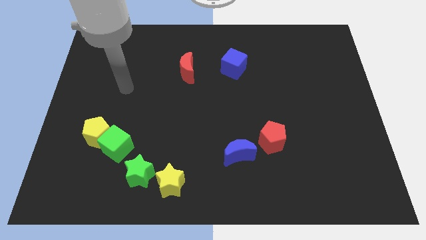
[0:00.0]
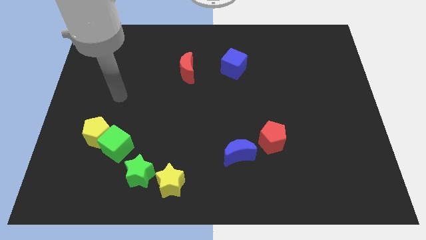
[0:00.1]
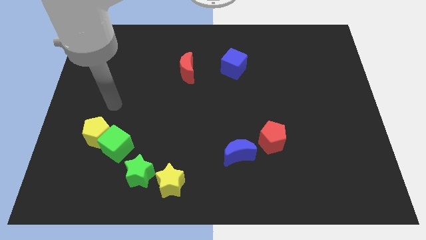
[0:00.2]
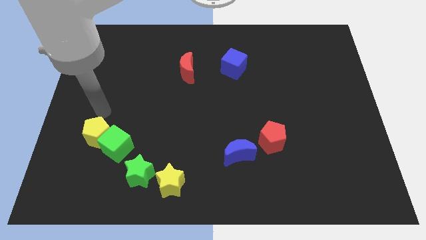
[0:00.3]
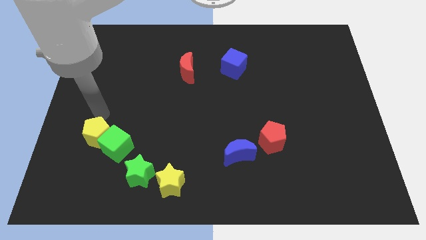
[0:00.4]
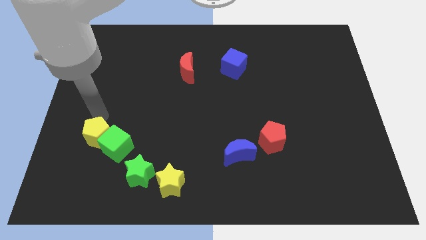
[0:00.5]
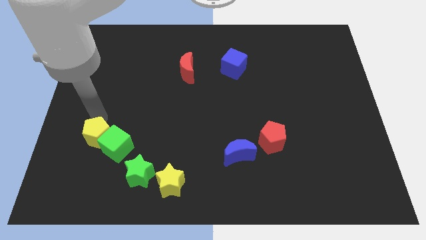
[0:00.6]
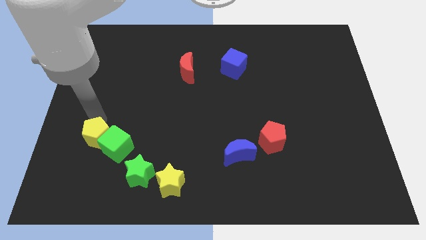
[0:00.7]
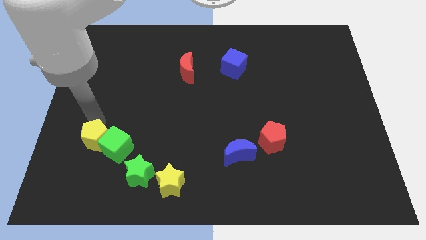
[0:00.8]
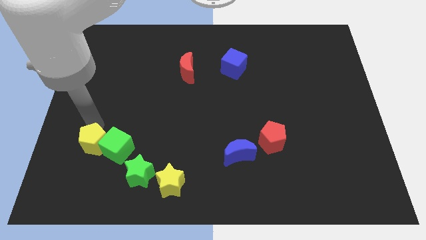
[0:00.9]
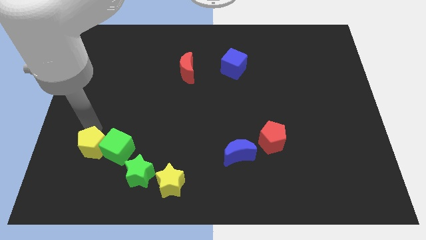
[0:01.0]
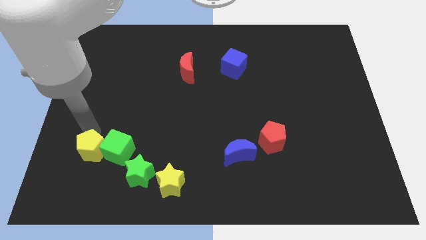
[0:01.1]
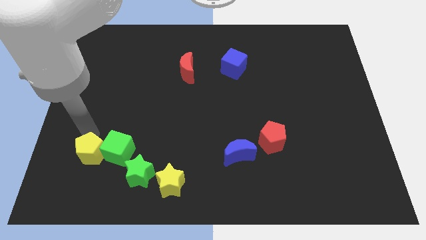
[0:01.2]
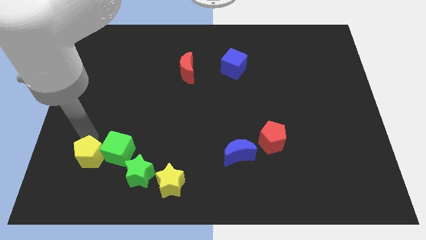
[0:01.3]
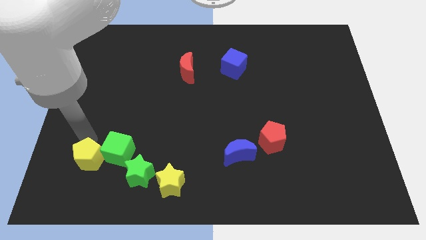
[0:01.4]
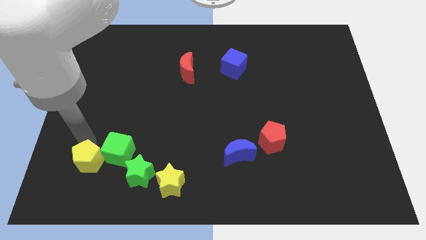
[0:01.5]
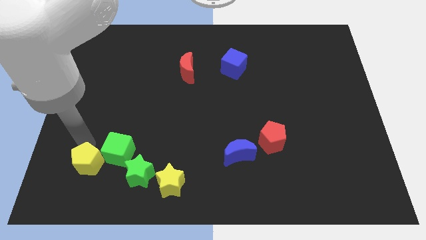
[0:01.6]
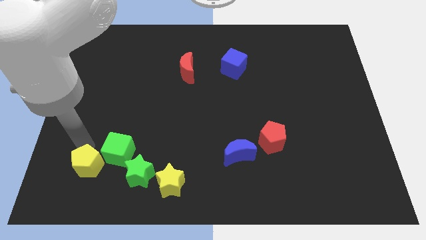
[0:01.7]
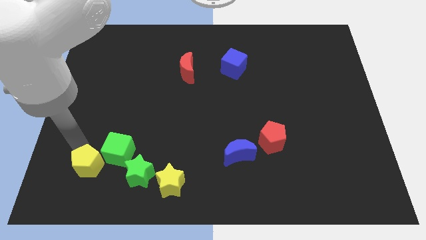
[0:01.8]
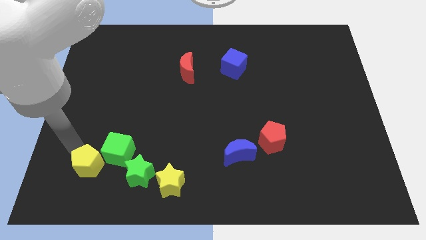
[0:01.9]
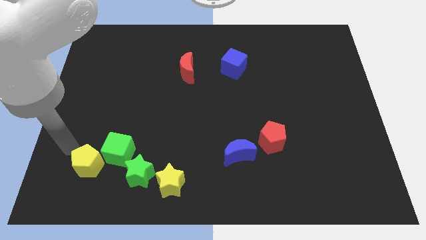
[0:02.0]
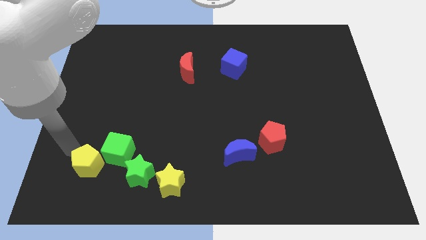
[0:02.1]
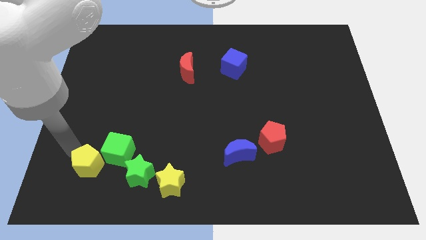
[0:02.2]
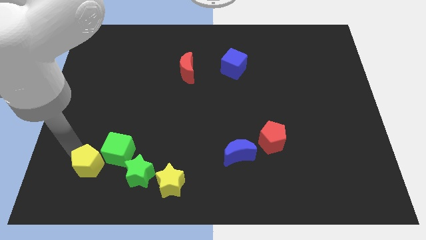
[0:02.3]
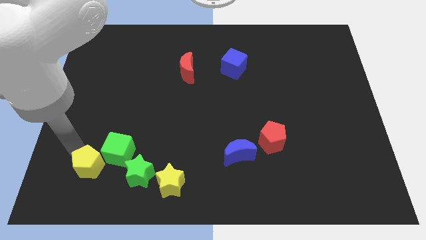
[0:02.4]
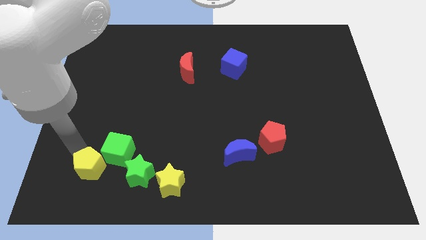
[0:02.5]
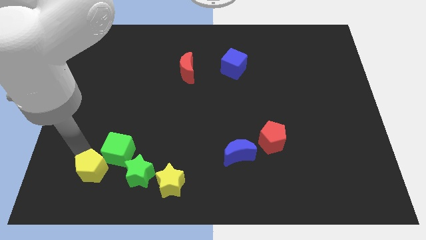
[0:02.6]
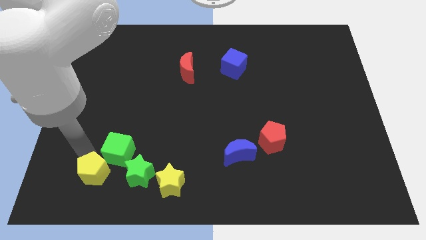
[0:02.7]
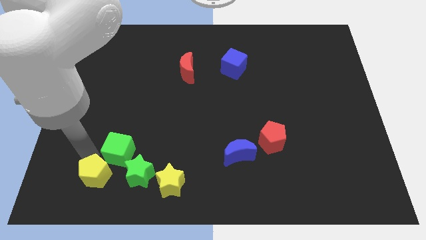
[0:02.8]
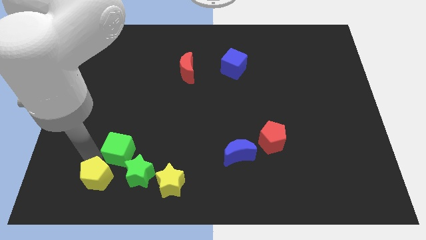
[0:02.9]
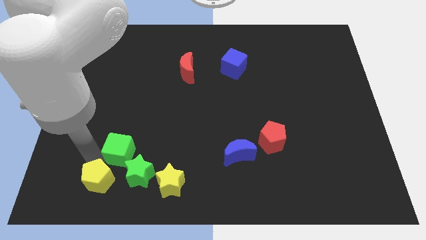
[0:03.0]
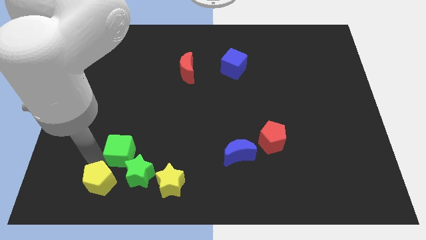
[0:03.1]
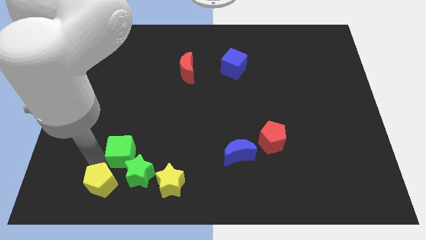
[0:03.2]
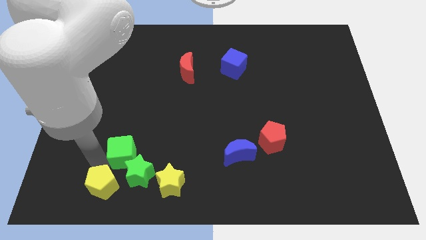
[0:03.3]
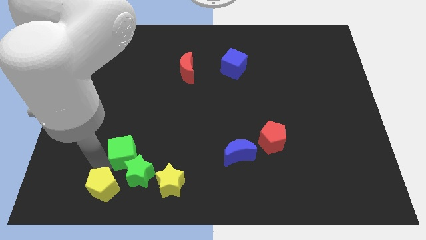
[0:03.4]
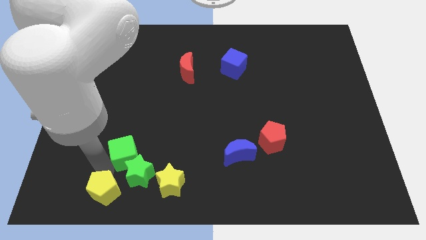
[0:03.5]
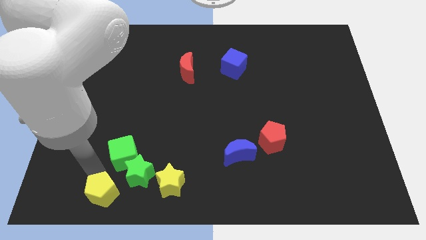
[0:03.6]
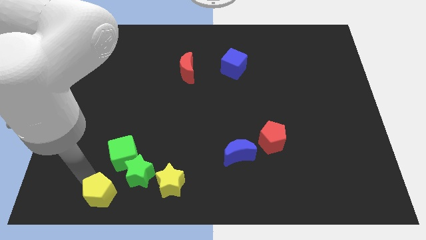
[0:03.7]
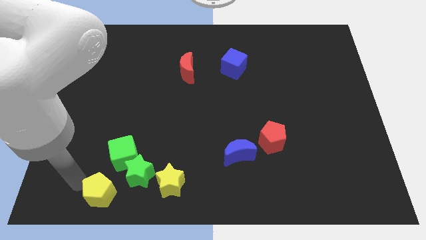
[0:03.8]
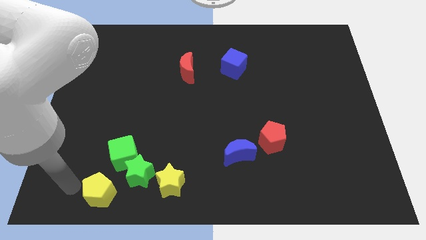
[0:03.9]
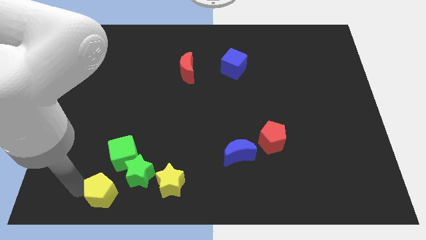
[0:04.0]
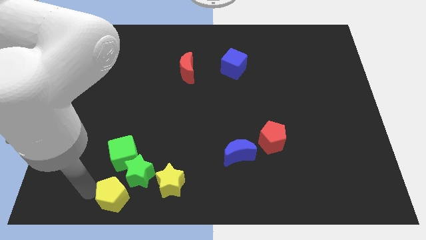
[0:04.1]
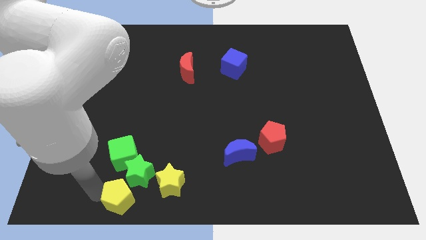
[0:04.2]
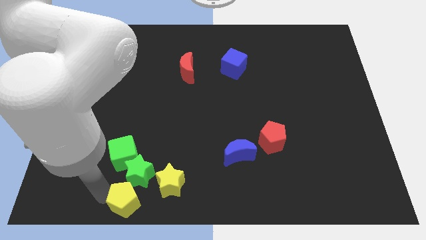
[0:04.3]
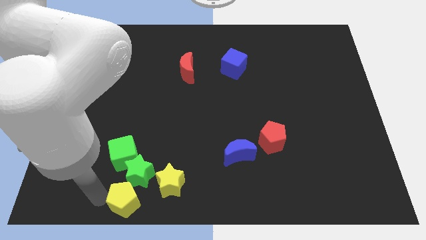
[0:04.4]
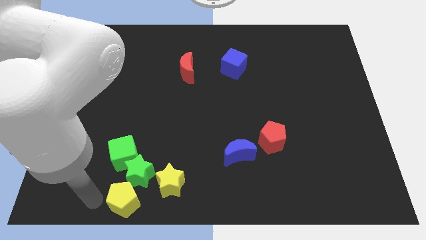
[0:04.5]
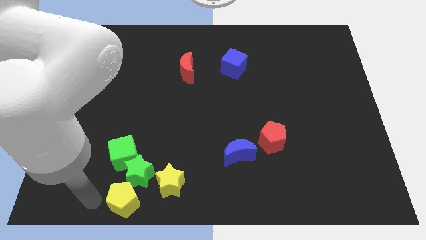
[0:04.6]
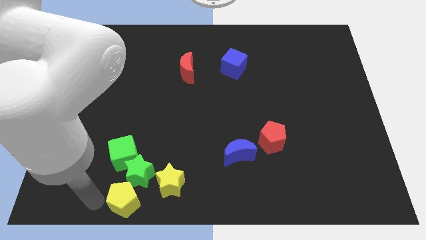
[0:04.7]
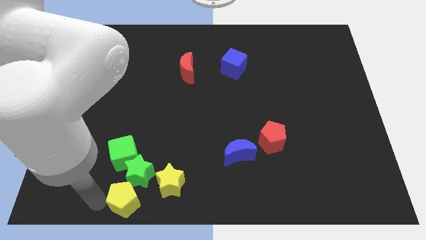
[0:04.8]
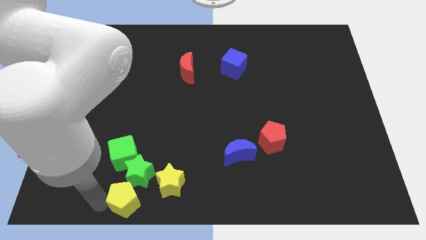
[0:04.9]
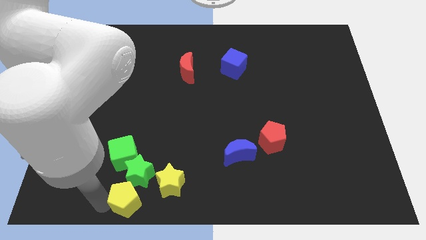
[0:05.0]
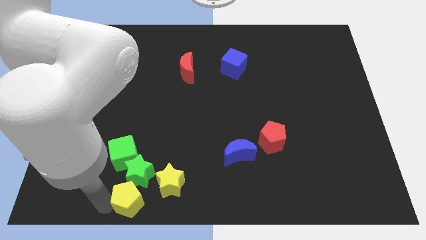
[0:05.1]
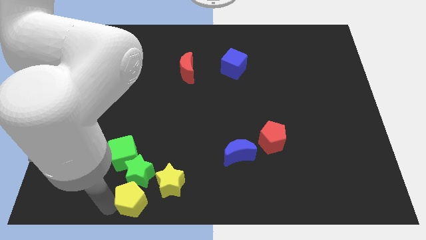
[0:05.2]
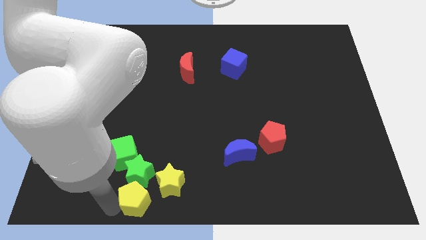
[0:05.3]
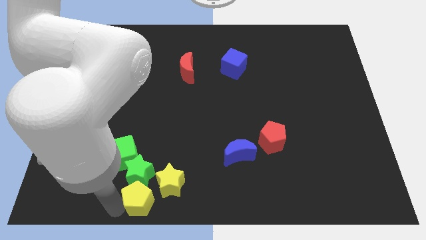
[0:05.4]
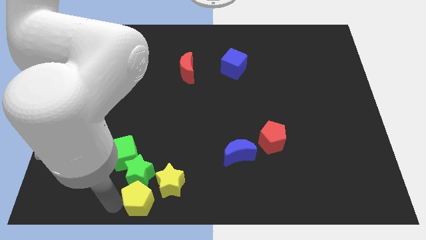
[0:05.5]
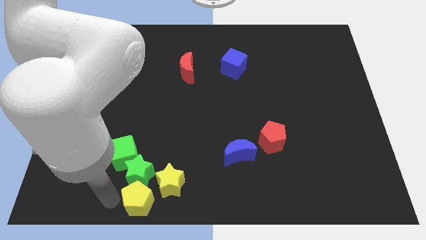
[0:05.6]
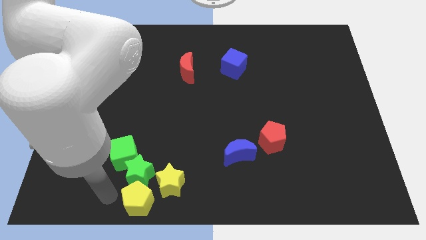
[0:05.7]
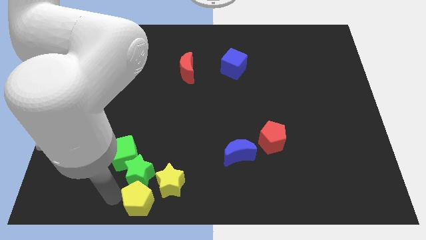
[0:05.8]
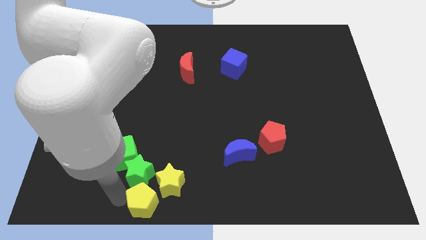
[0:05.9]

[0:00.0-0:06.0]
put the yellow pentagon to the bottom
